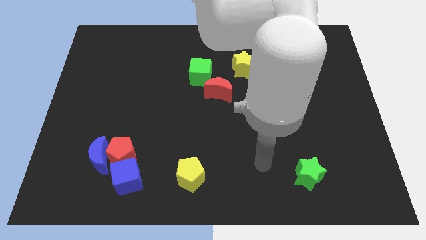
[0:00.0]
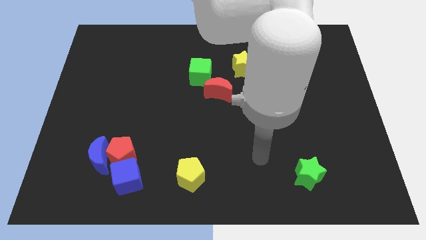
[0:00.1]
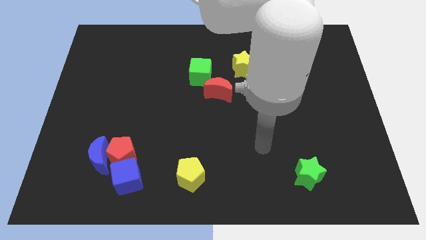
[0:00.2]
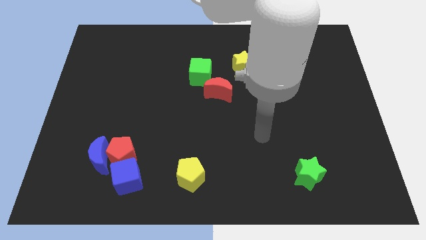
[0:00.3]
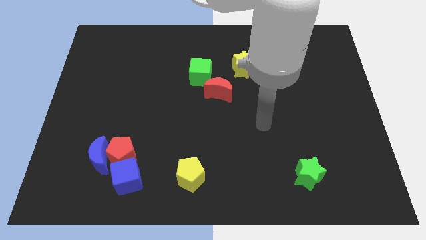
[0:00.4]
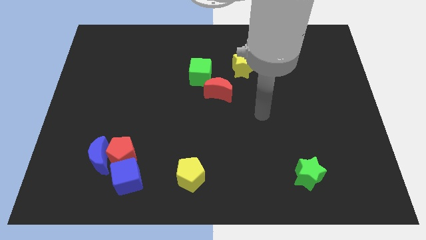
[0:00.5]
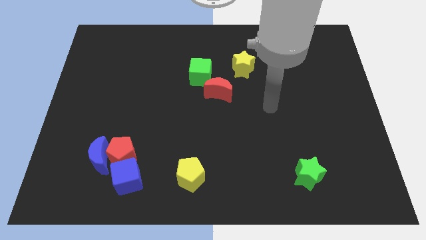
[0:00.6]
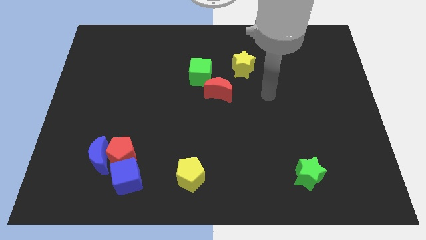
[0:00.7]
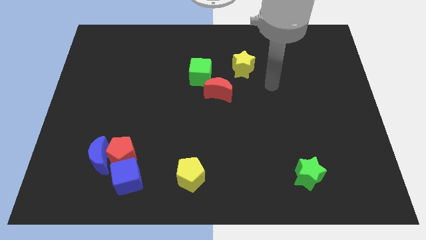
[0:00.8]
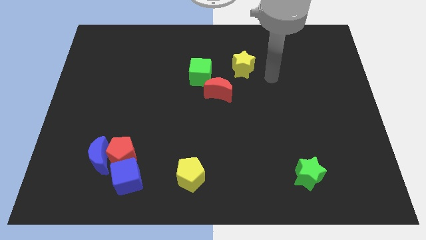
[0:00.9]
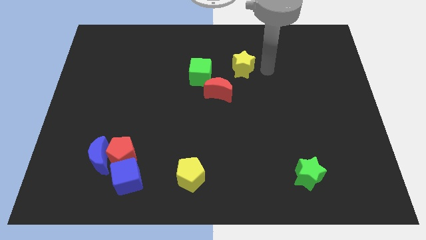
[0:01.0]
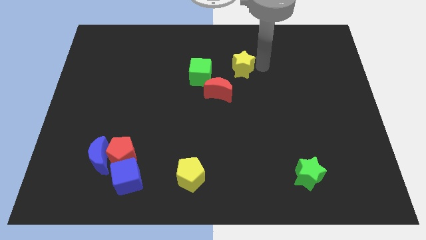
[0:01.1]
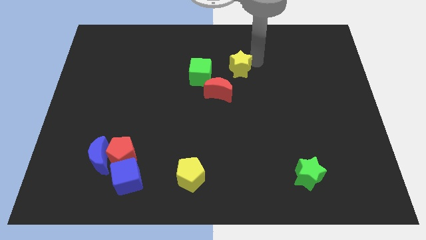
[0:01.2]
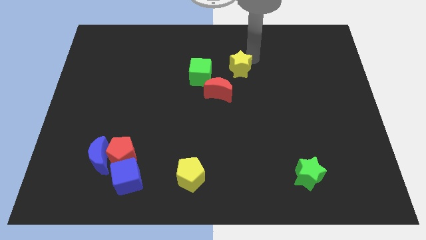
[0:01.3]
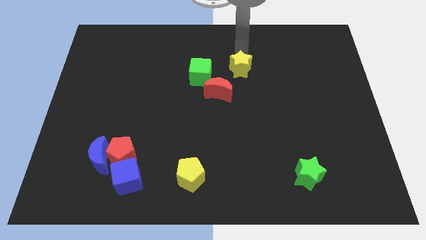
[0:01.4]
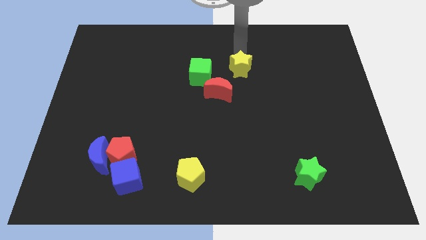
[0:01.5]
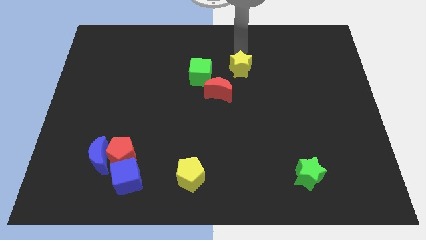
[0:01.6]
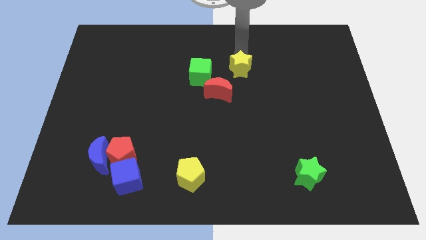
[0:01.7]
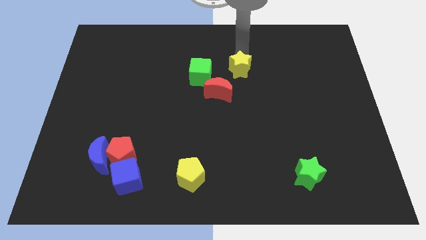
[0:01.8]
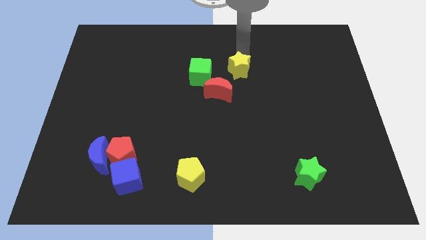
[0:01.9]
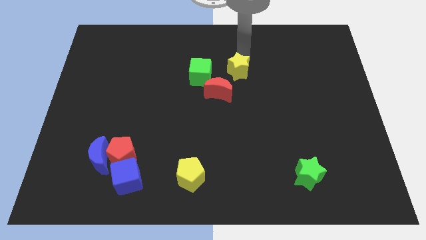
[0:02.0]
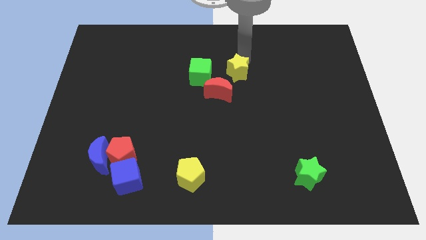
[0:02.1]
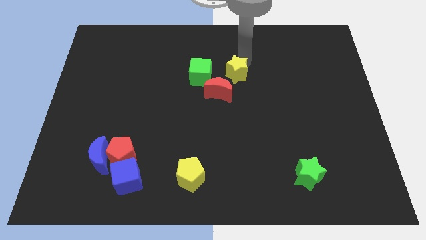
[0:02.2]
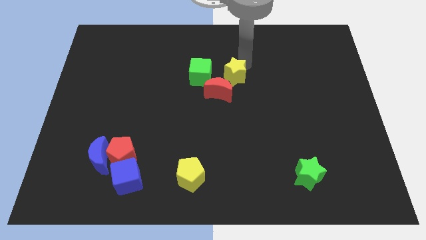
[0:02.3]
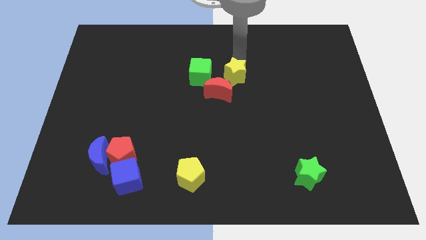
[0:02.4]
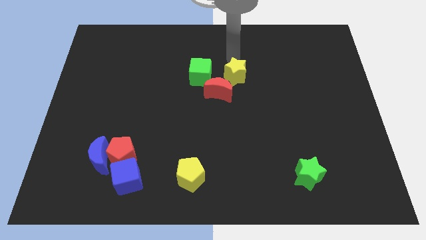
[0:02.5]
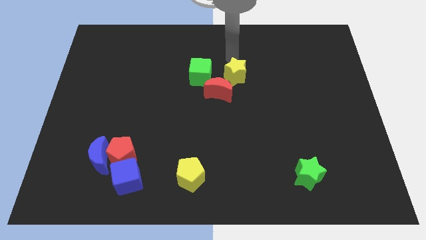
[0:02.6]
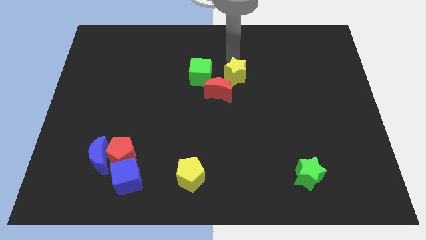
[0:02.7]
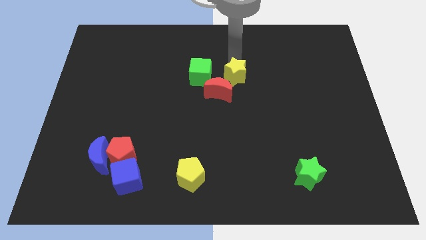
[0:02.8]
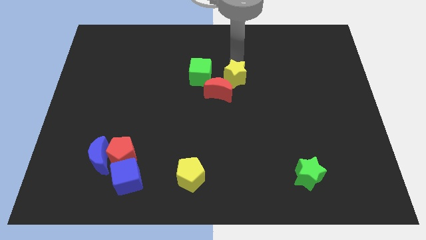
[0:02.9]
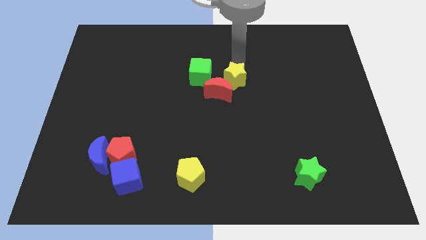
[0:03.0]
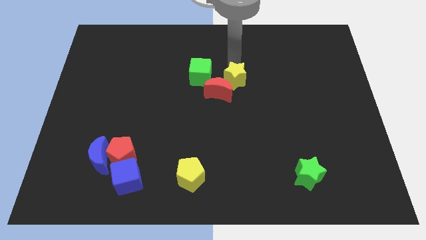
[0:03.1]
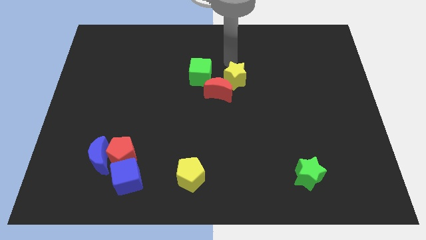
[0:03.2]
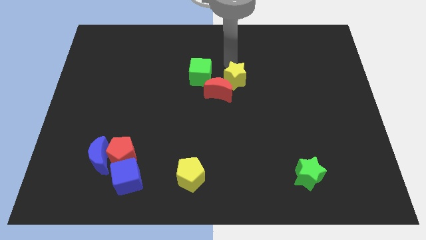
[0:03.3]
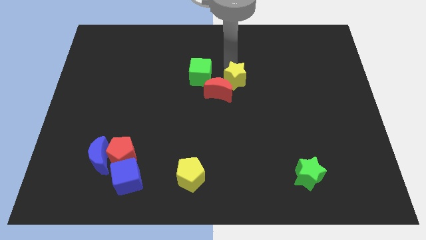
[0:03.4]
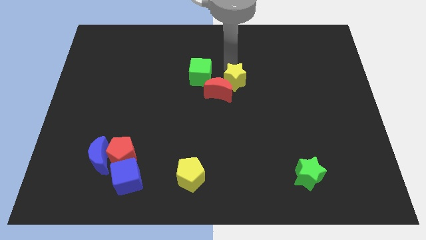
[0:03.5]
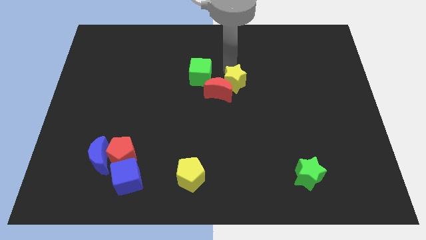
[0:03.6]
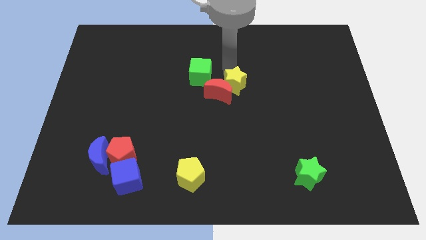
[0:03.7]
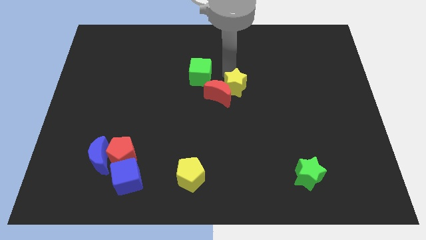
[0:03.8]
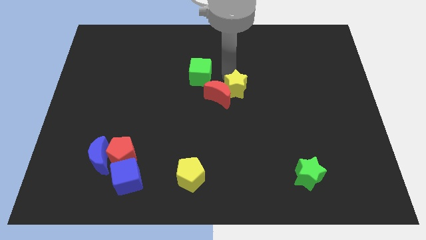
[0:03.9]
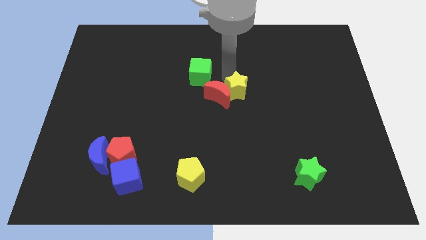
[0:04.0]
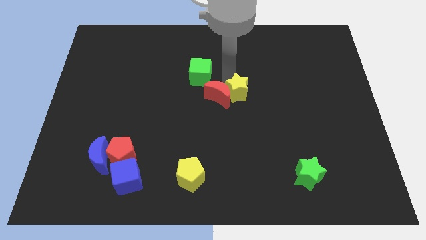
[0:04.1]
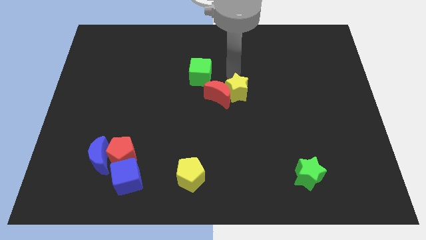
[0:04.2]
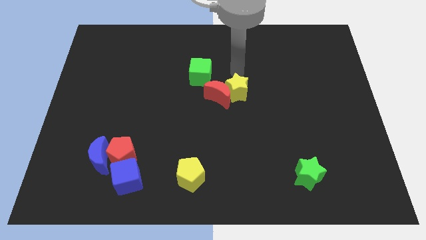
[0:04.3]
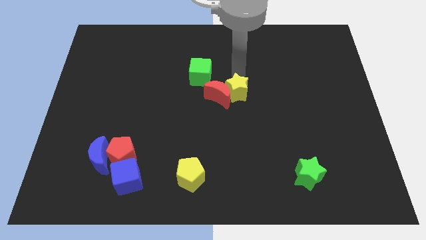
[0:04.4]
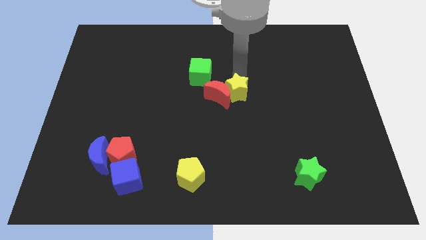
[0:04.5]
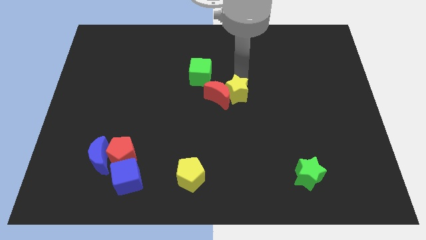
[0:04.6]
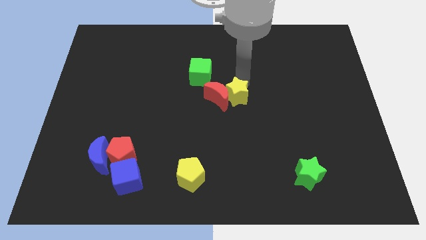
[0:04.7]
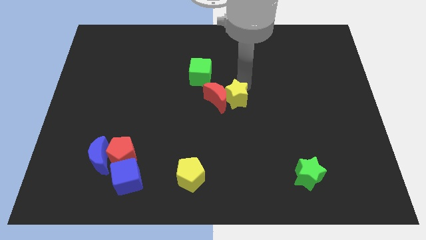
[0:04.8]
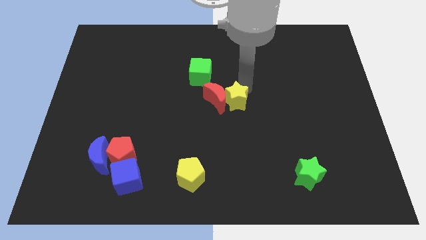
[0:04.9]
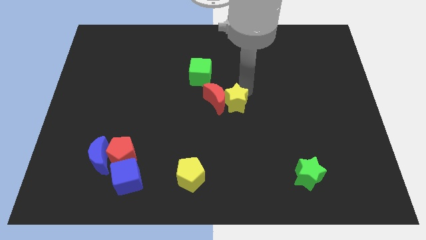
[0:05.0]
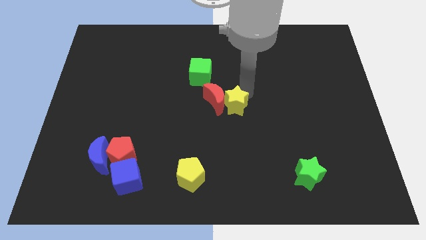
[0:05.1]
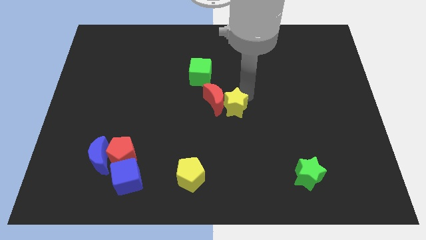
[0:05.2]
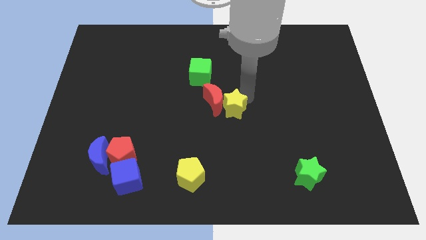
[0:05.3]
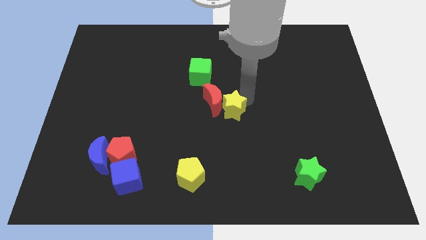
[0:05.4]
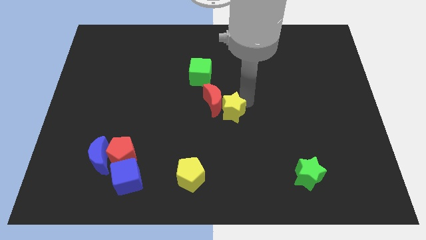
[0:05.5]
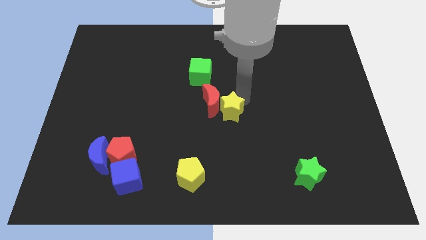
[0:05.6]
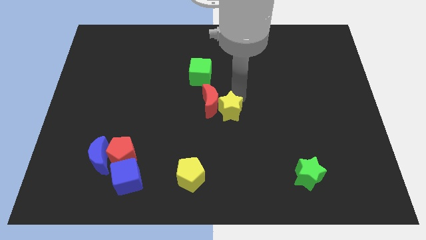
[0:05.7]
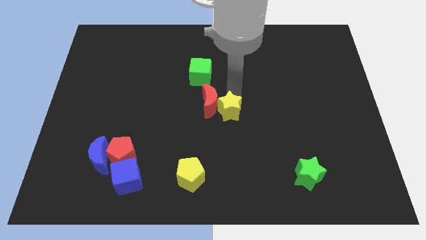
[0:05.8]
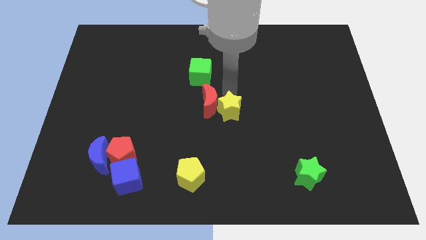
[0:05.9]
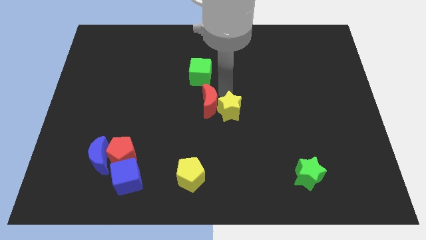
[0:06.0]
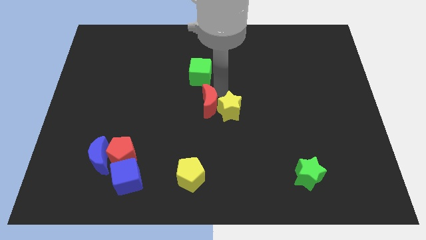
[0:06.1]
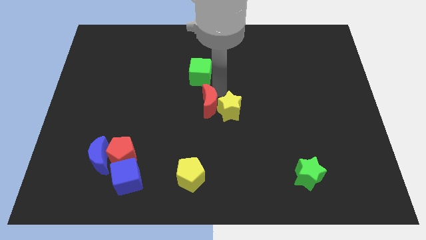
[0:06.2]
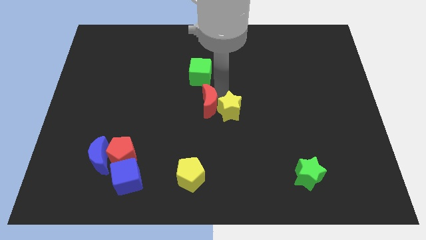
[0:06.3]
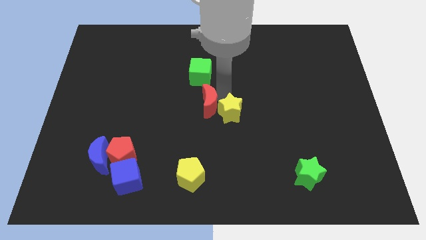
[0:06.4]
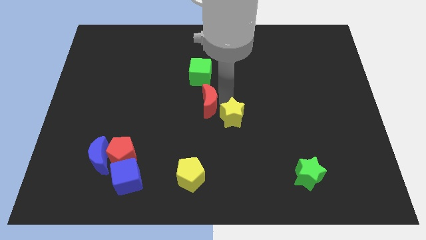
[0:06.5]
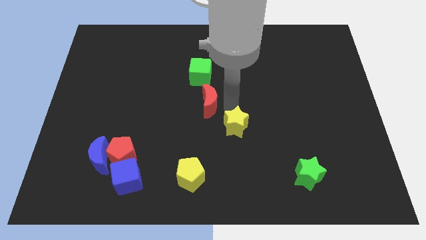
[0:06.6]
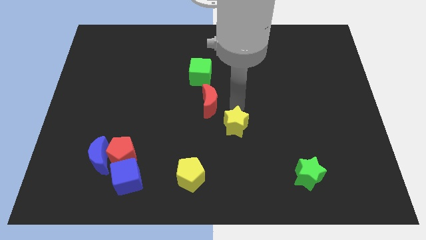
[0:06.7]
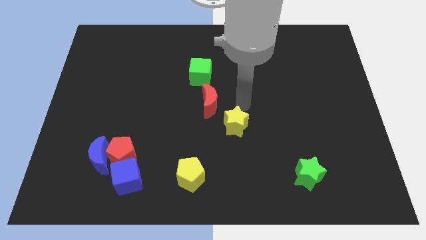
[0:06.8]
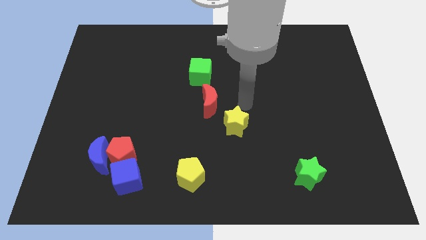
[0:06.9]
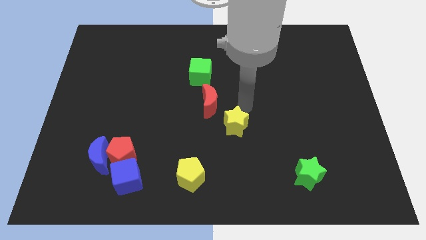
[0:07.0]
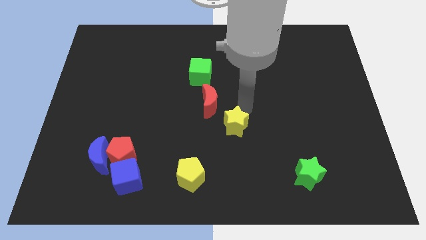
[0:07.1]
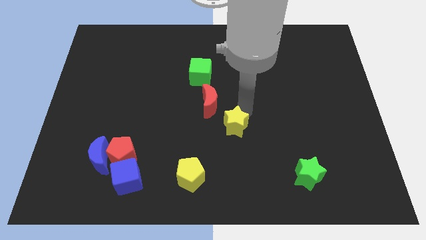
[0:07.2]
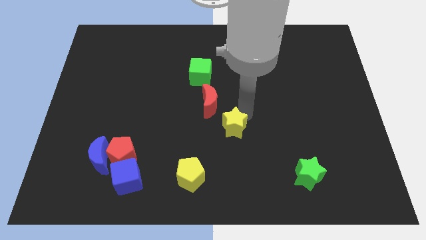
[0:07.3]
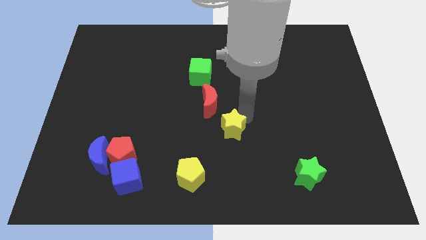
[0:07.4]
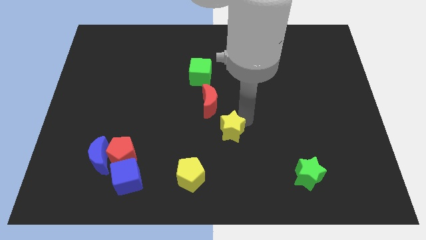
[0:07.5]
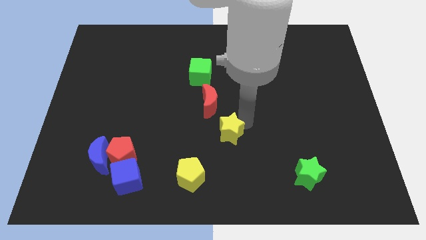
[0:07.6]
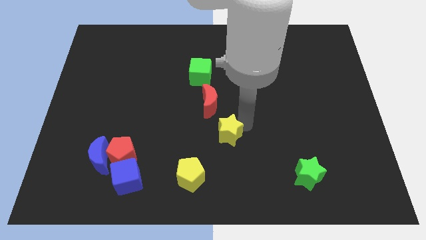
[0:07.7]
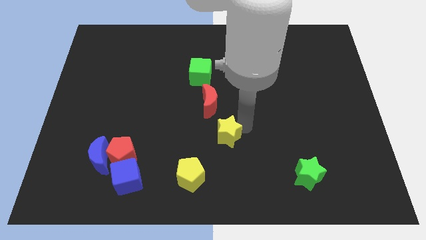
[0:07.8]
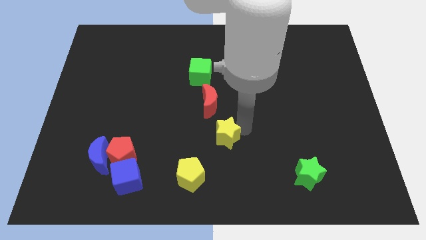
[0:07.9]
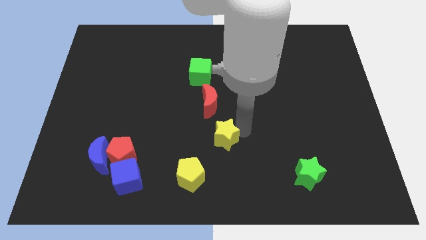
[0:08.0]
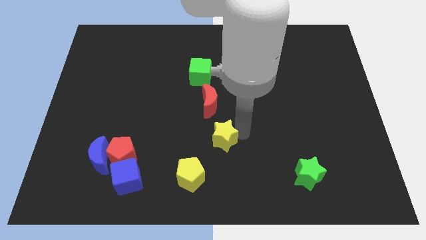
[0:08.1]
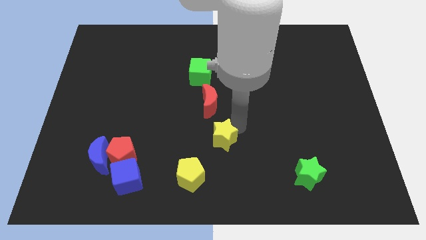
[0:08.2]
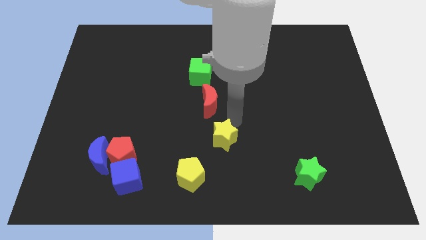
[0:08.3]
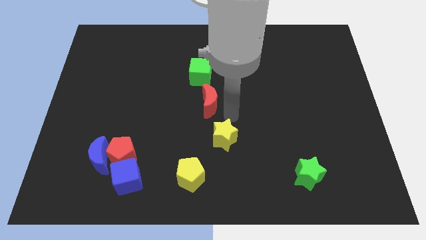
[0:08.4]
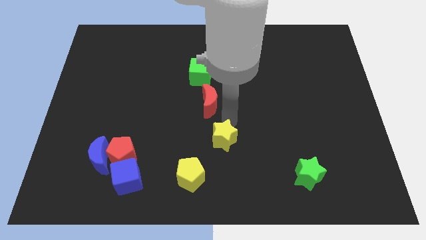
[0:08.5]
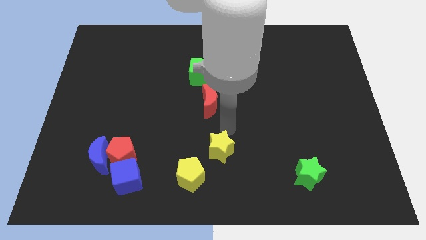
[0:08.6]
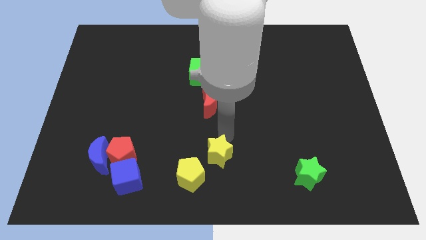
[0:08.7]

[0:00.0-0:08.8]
put the yellow star to the bottom side
